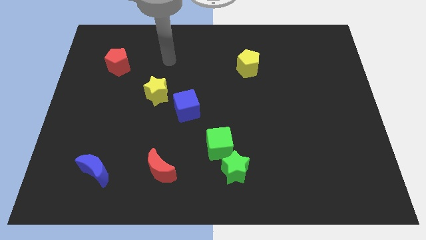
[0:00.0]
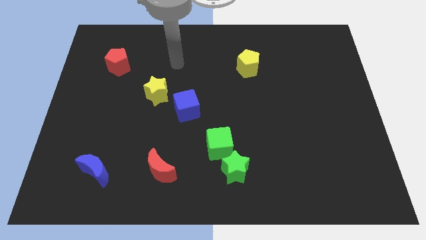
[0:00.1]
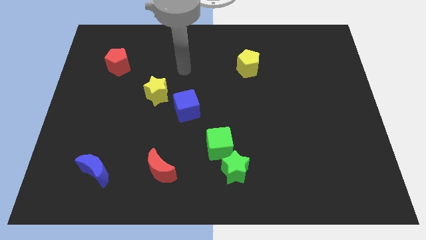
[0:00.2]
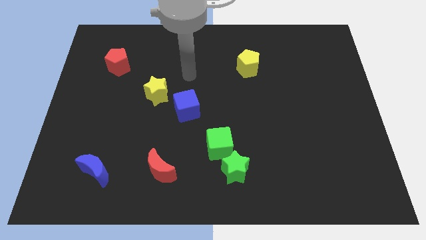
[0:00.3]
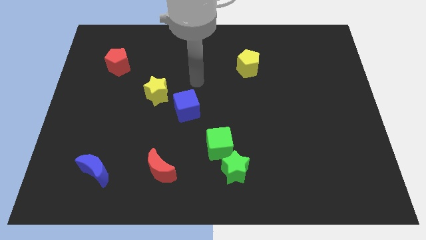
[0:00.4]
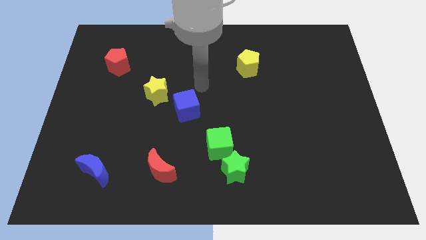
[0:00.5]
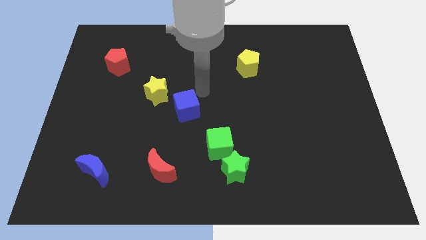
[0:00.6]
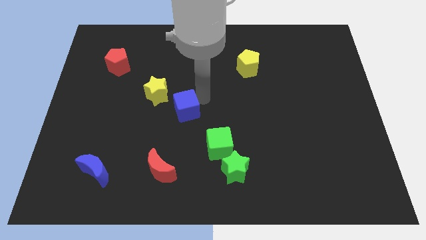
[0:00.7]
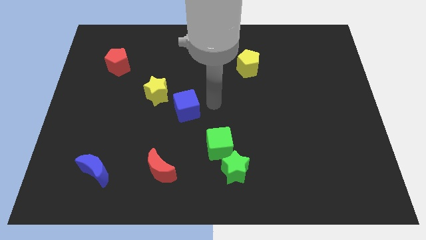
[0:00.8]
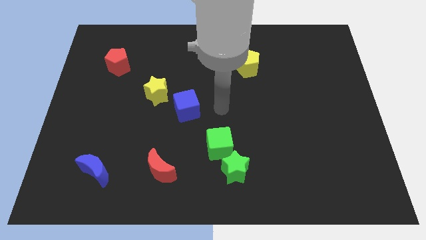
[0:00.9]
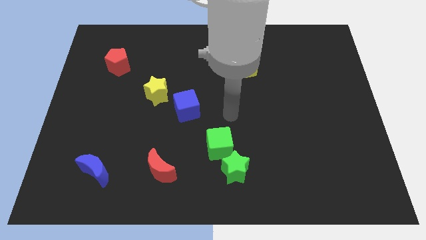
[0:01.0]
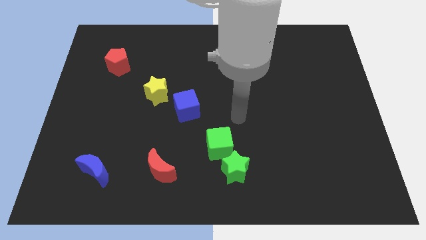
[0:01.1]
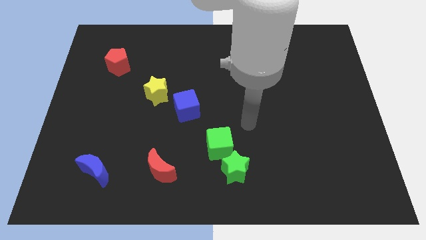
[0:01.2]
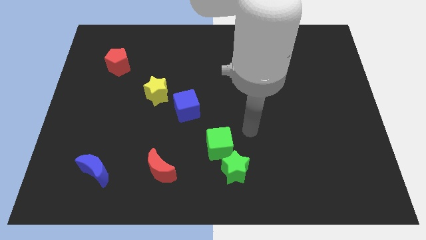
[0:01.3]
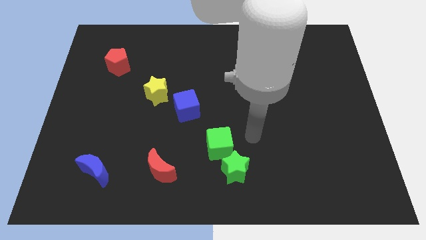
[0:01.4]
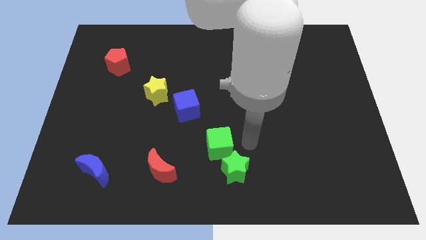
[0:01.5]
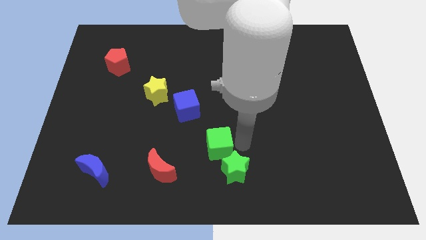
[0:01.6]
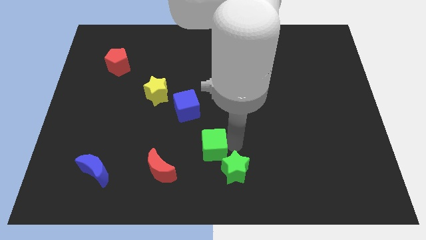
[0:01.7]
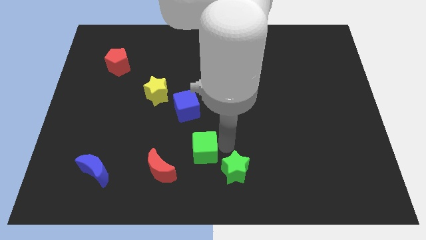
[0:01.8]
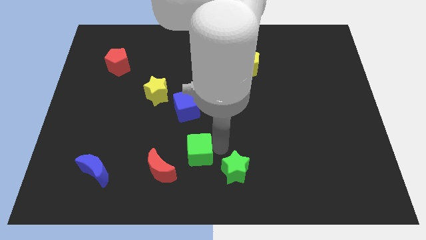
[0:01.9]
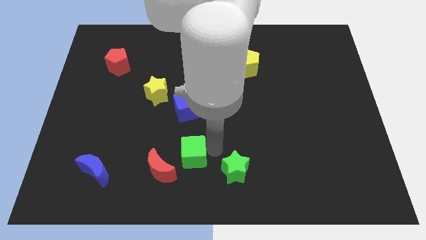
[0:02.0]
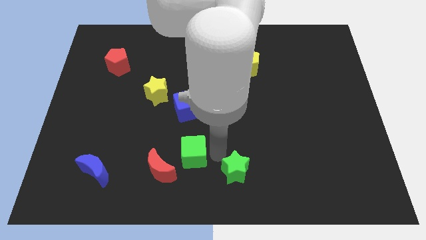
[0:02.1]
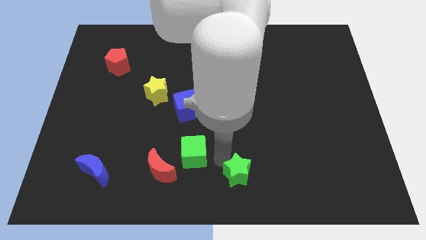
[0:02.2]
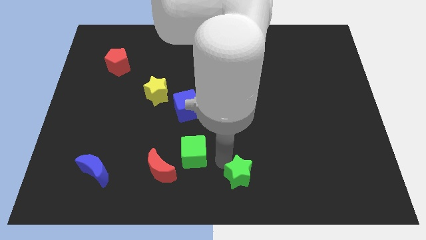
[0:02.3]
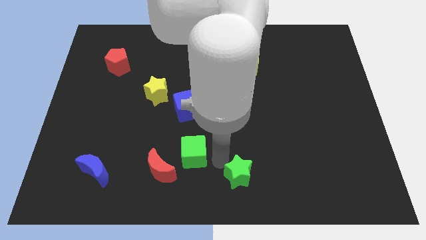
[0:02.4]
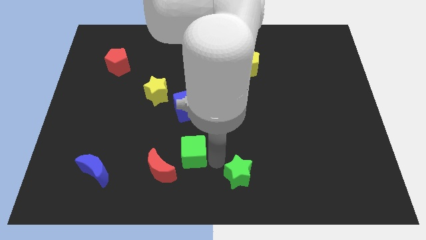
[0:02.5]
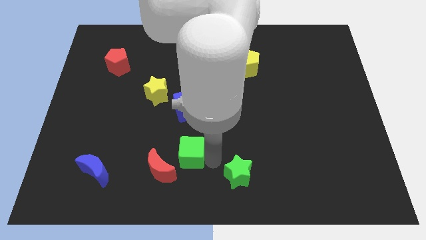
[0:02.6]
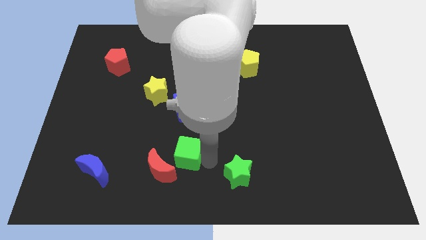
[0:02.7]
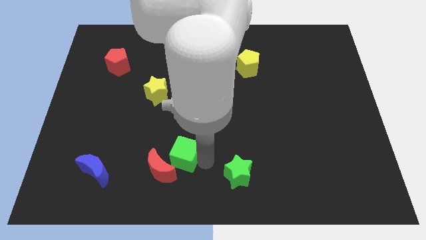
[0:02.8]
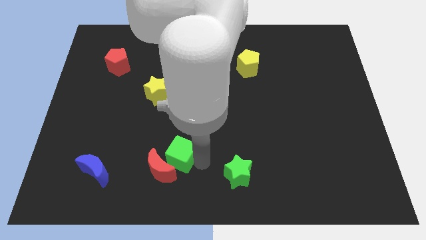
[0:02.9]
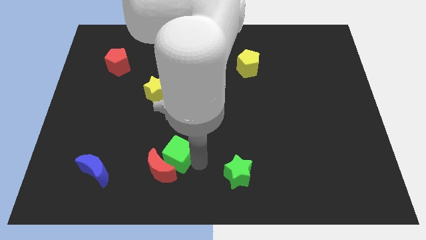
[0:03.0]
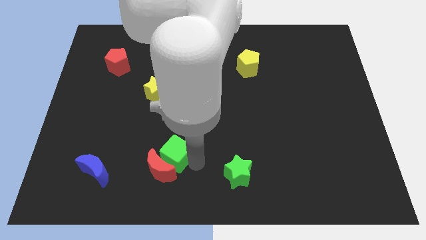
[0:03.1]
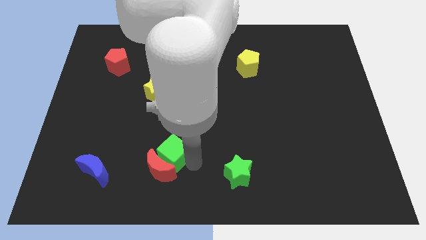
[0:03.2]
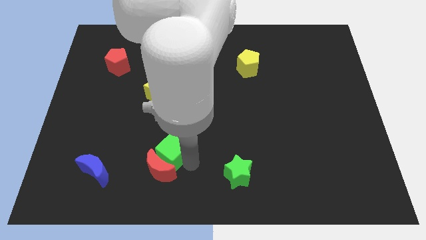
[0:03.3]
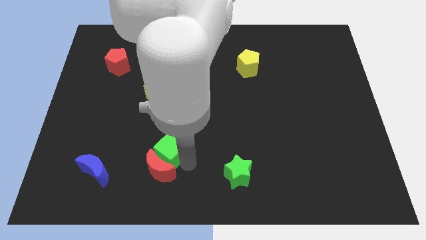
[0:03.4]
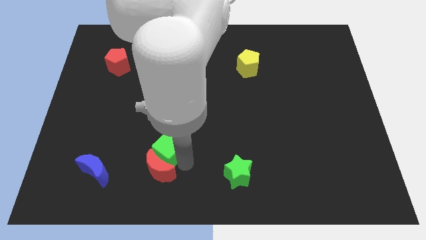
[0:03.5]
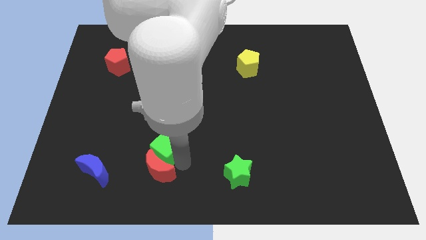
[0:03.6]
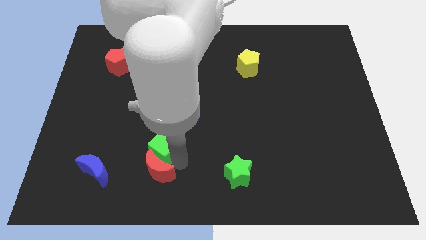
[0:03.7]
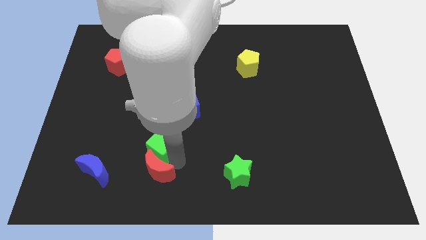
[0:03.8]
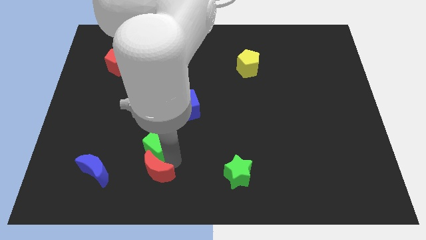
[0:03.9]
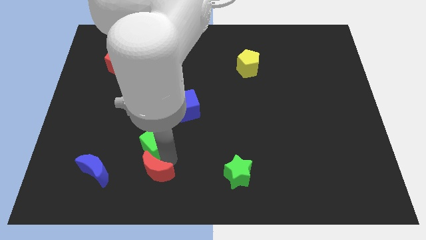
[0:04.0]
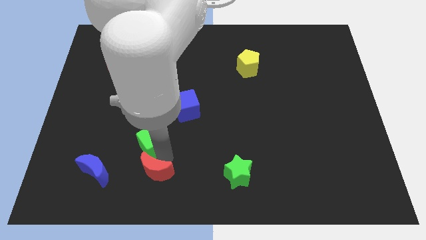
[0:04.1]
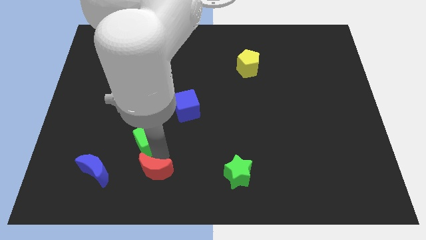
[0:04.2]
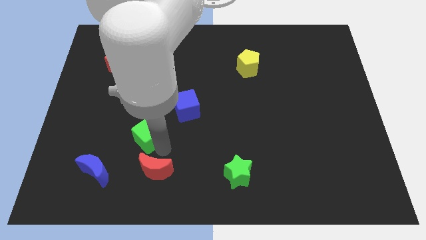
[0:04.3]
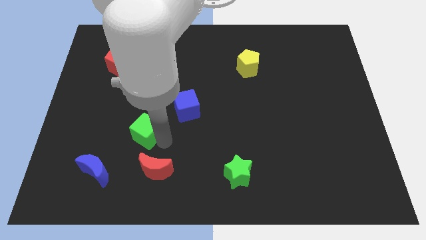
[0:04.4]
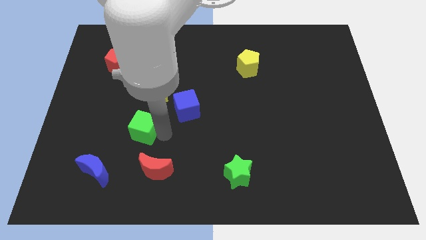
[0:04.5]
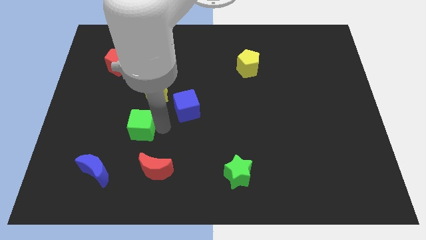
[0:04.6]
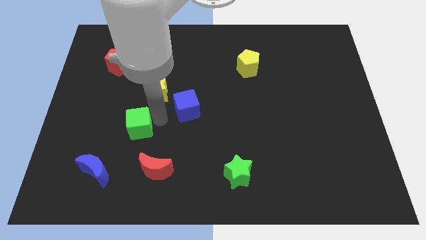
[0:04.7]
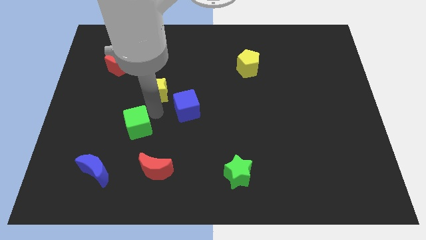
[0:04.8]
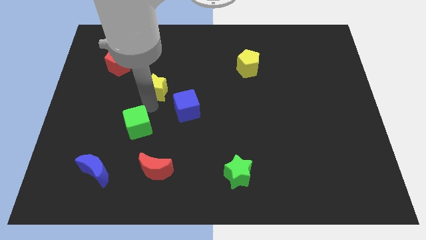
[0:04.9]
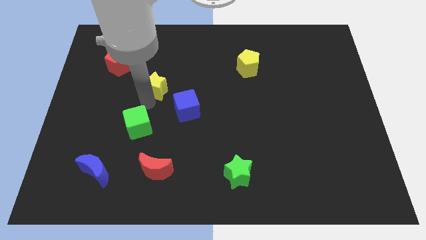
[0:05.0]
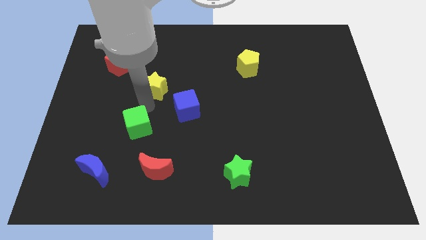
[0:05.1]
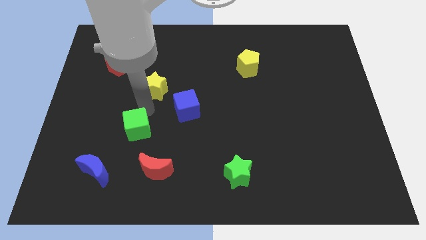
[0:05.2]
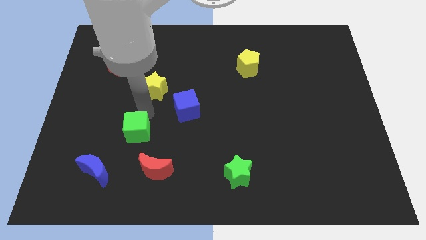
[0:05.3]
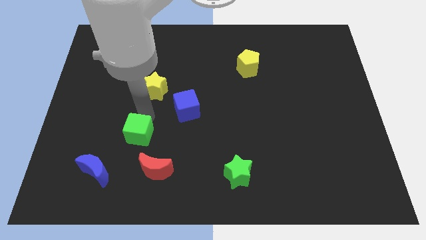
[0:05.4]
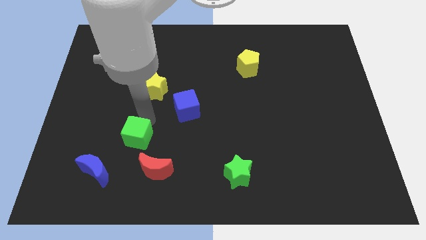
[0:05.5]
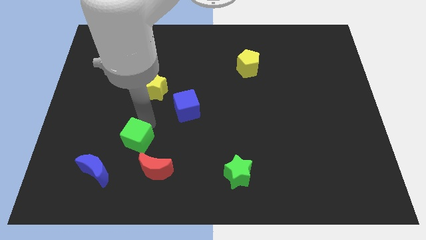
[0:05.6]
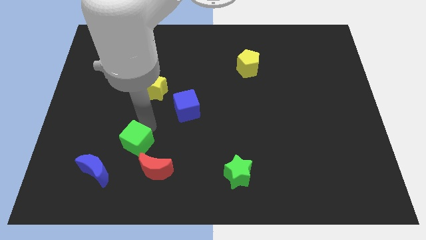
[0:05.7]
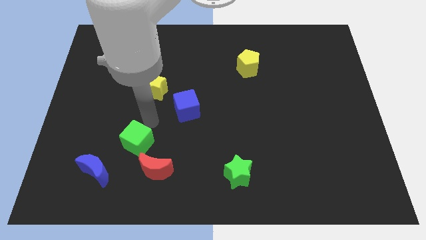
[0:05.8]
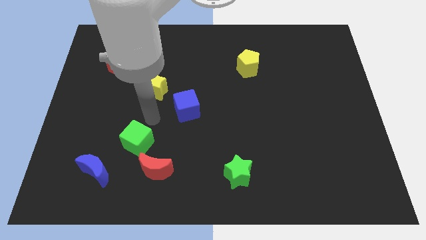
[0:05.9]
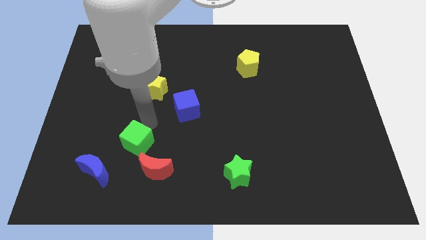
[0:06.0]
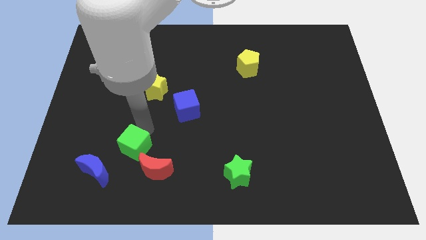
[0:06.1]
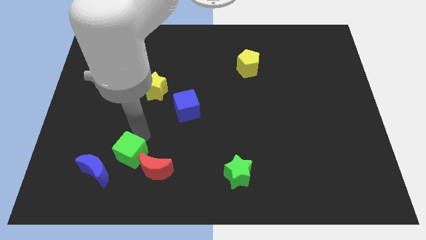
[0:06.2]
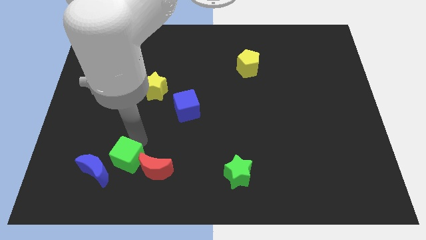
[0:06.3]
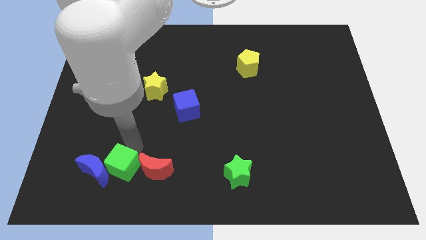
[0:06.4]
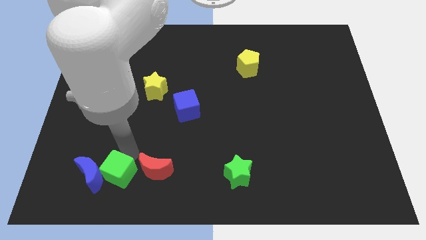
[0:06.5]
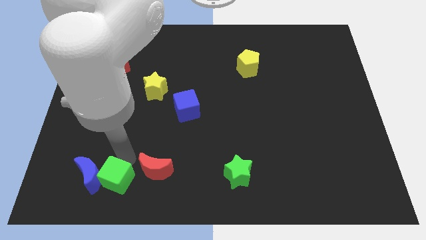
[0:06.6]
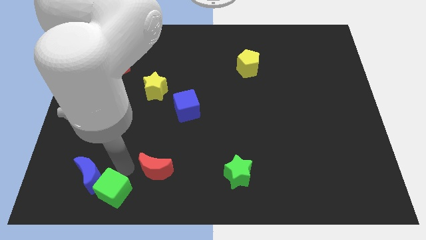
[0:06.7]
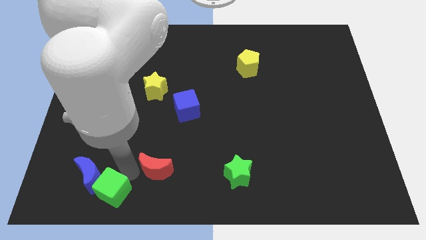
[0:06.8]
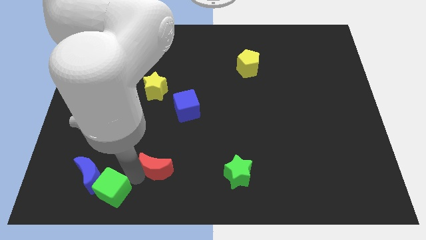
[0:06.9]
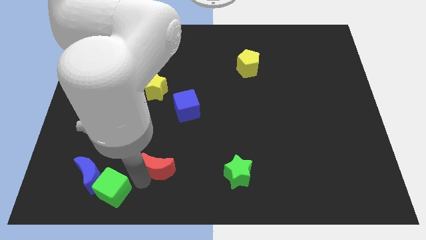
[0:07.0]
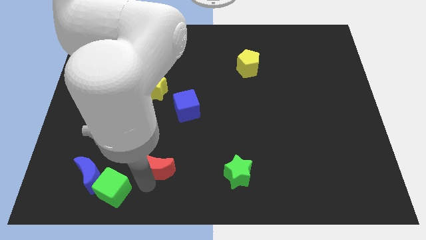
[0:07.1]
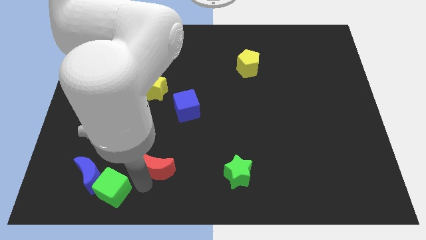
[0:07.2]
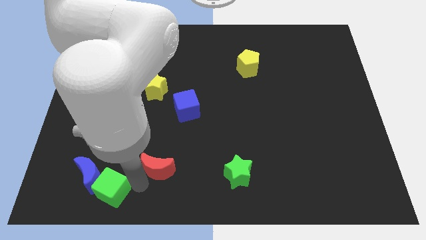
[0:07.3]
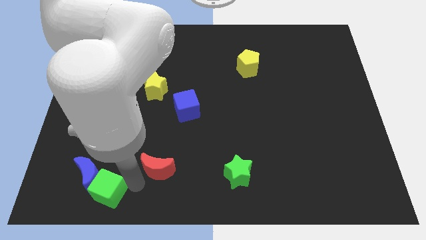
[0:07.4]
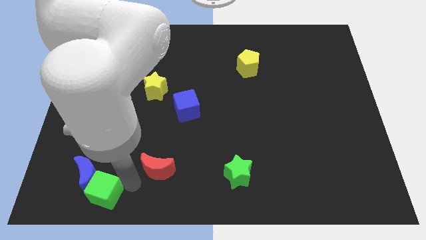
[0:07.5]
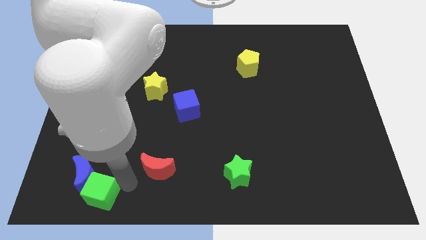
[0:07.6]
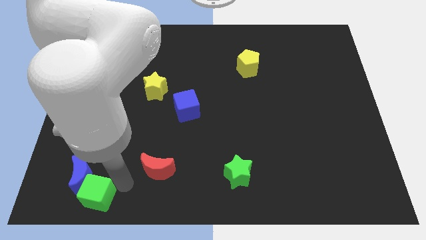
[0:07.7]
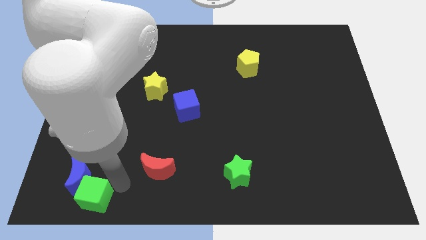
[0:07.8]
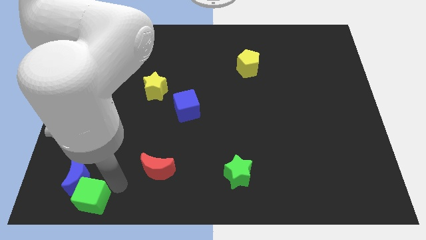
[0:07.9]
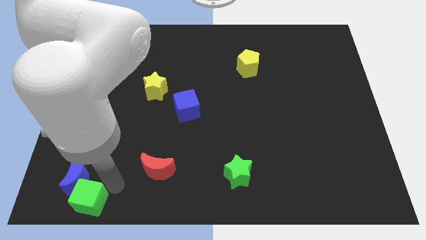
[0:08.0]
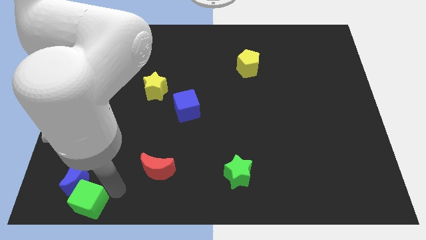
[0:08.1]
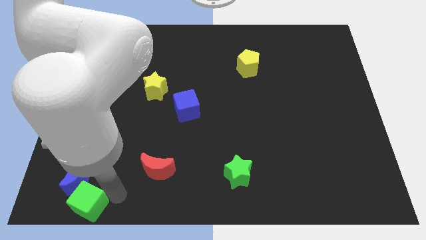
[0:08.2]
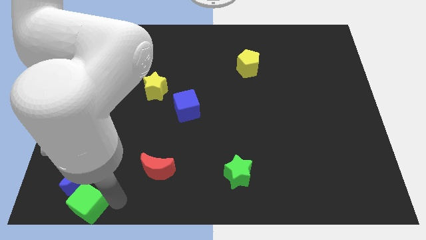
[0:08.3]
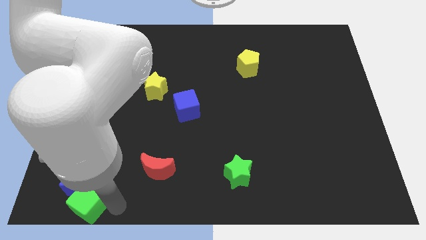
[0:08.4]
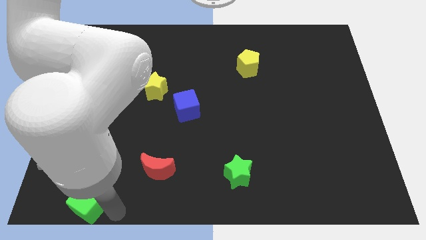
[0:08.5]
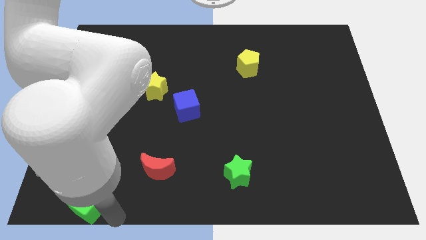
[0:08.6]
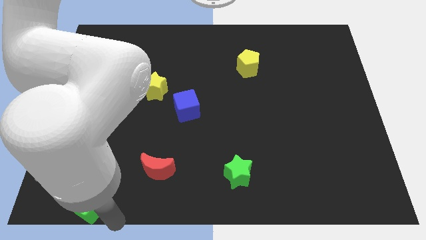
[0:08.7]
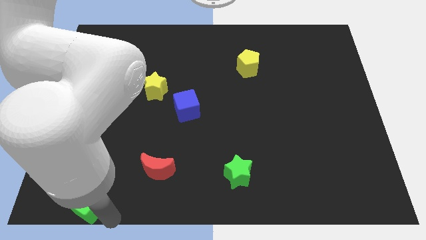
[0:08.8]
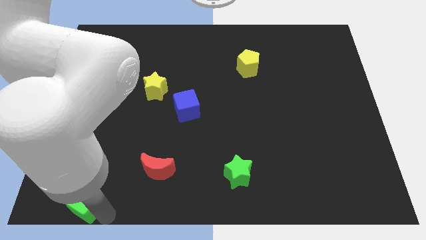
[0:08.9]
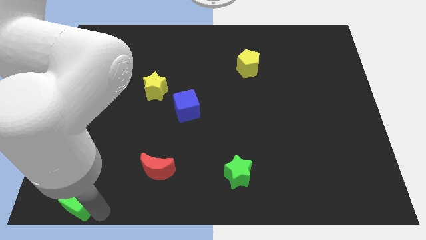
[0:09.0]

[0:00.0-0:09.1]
slide the green cube to the lower left corner
